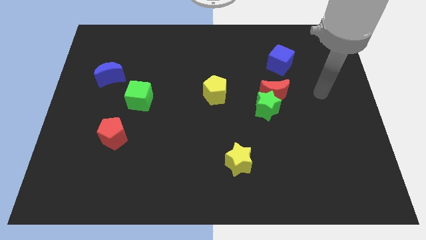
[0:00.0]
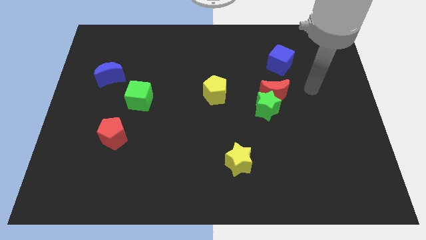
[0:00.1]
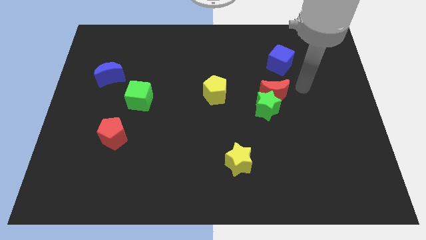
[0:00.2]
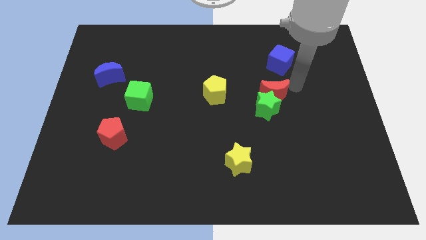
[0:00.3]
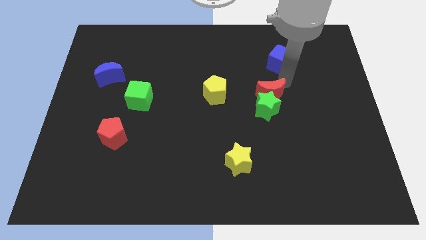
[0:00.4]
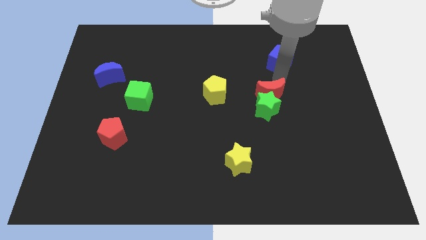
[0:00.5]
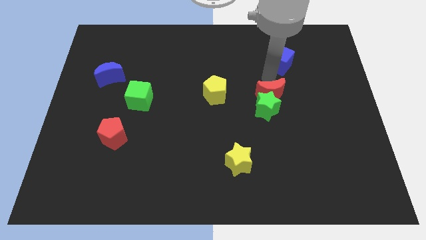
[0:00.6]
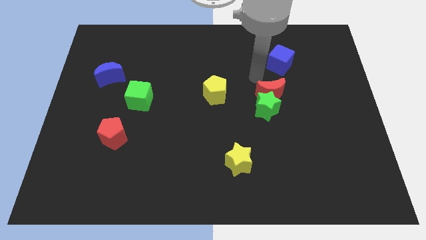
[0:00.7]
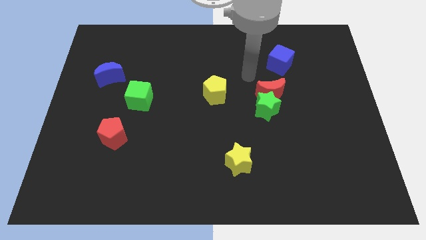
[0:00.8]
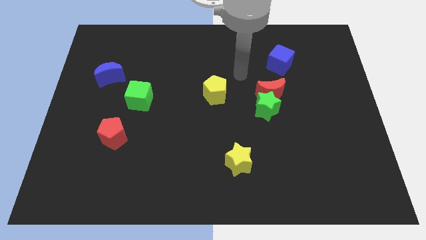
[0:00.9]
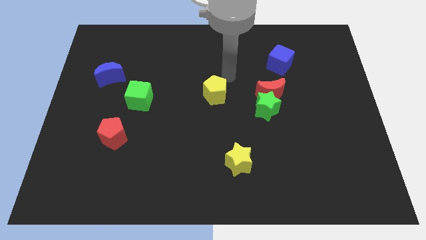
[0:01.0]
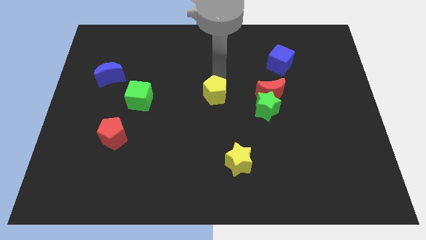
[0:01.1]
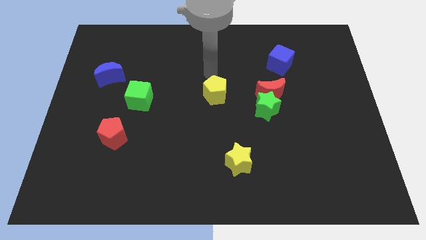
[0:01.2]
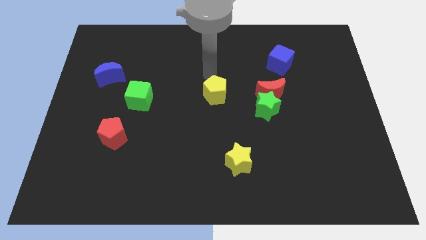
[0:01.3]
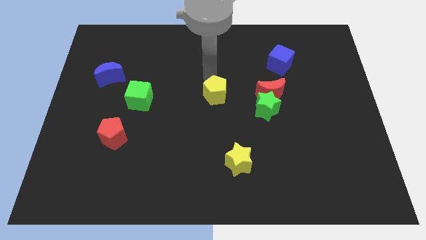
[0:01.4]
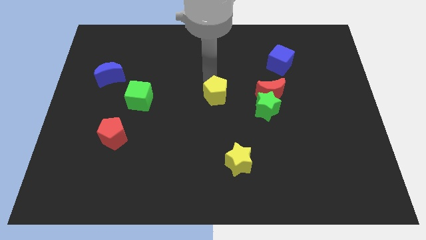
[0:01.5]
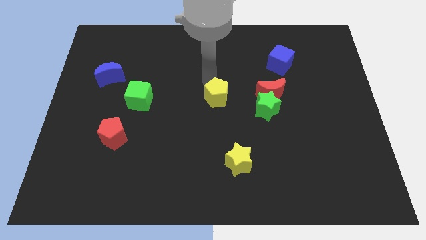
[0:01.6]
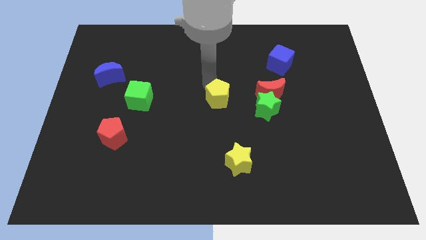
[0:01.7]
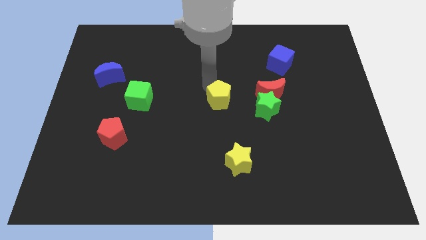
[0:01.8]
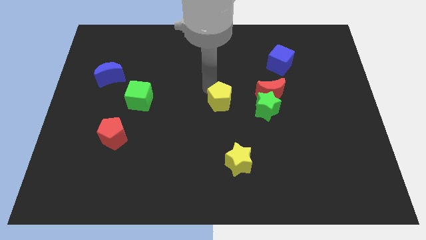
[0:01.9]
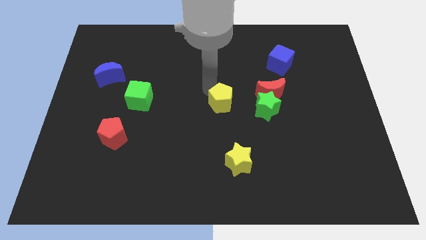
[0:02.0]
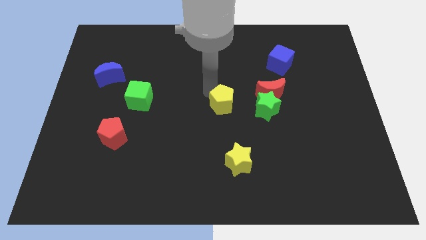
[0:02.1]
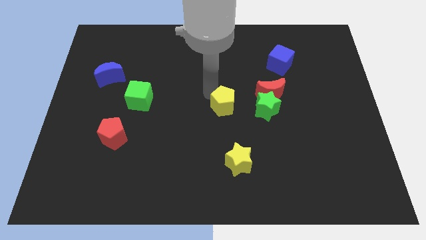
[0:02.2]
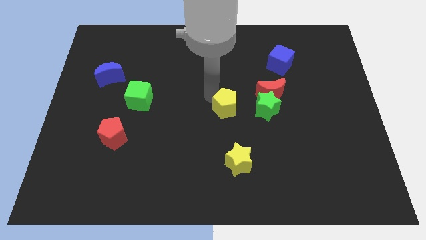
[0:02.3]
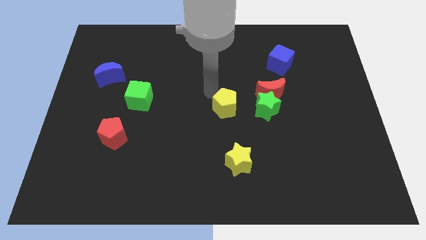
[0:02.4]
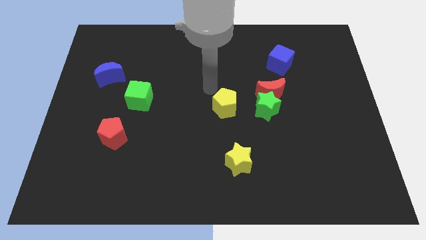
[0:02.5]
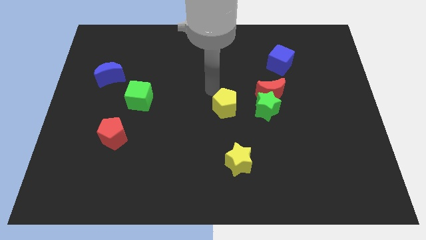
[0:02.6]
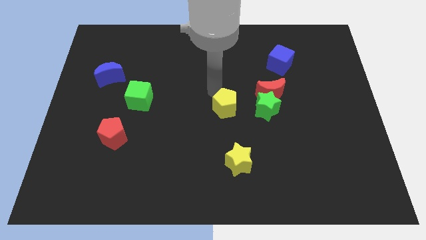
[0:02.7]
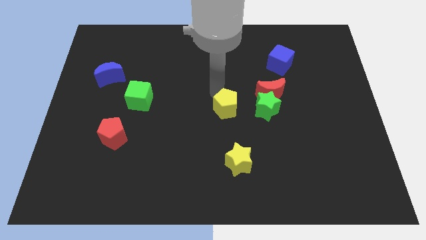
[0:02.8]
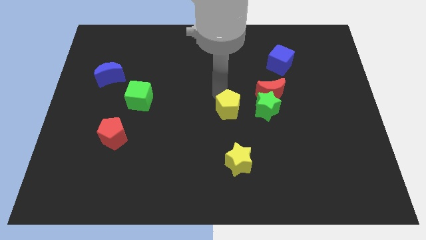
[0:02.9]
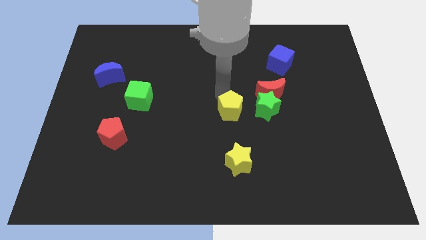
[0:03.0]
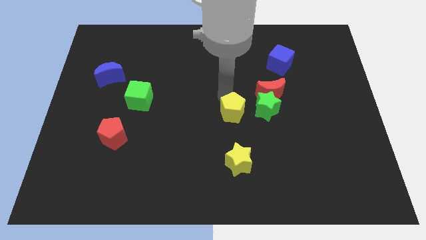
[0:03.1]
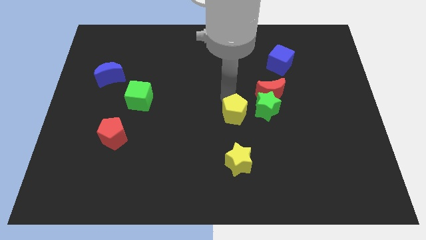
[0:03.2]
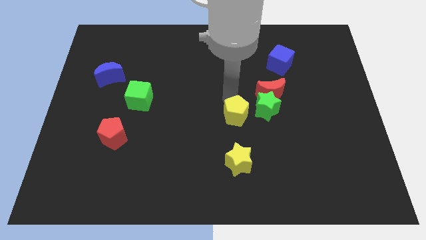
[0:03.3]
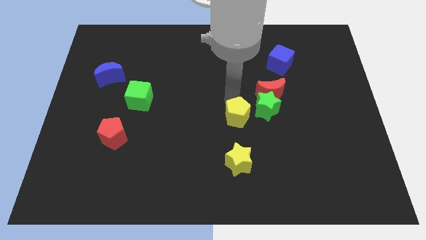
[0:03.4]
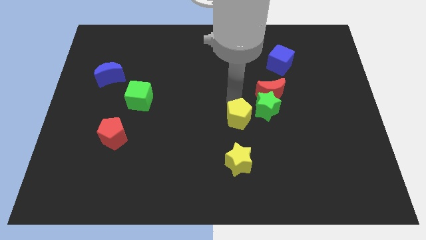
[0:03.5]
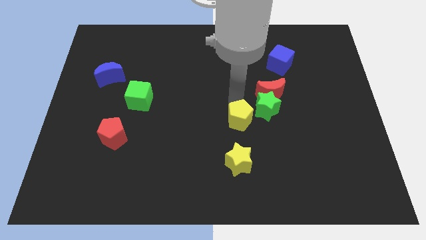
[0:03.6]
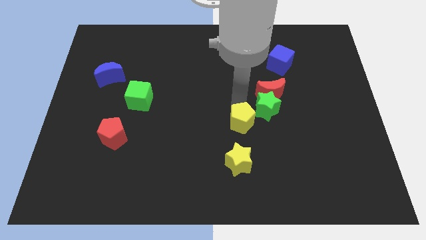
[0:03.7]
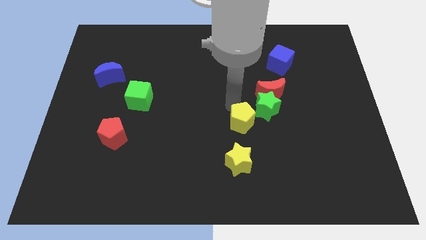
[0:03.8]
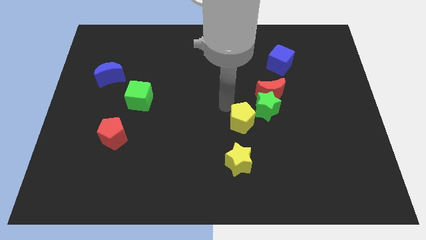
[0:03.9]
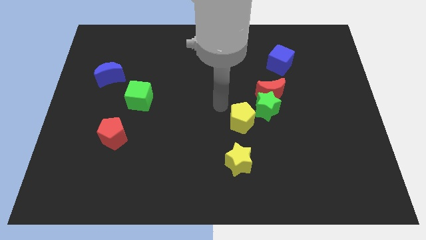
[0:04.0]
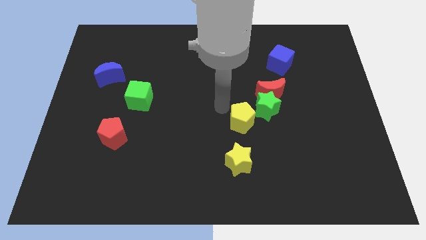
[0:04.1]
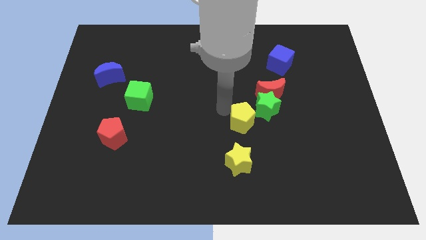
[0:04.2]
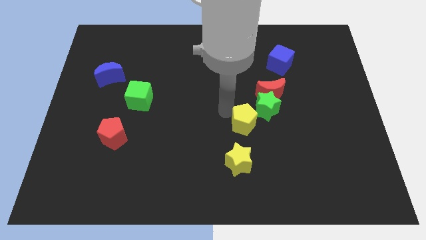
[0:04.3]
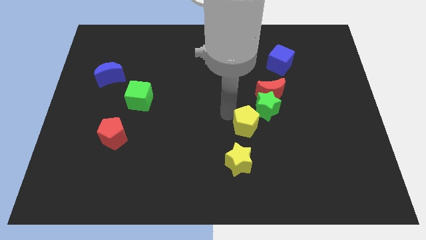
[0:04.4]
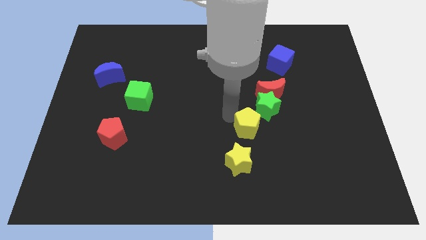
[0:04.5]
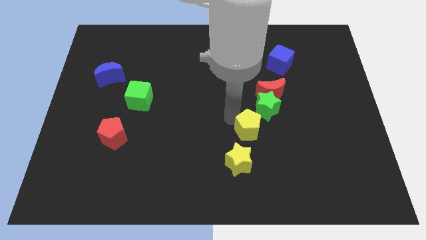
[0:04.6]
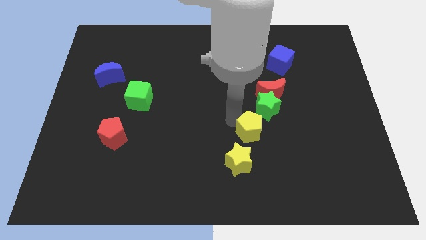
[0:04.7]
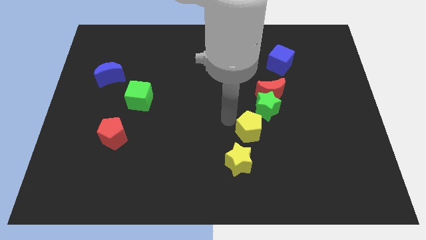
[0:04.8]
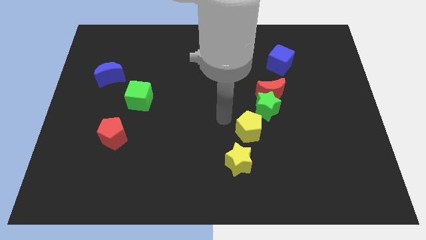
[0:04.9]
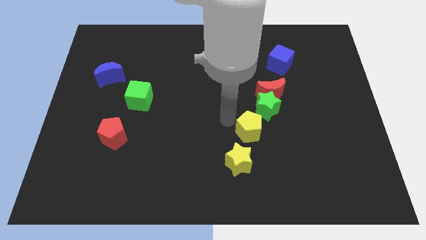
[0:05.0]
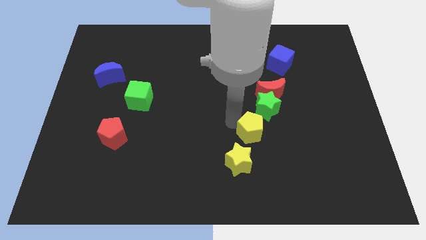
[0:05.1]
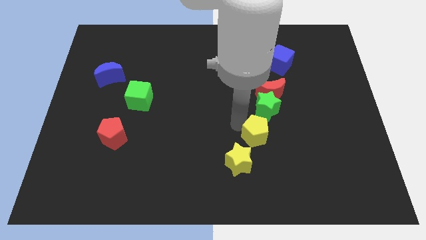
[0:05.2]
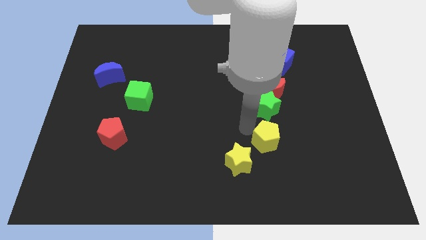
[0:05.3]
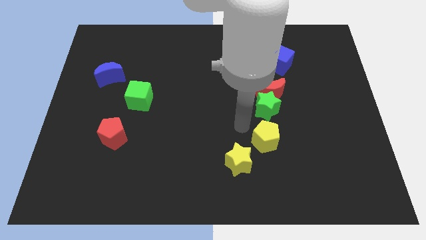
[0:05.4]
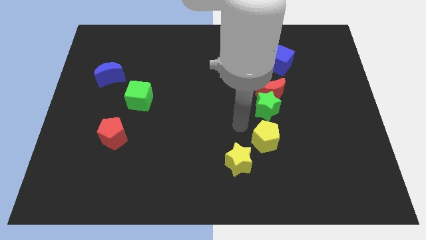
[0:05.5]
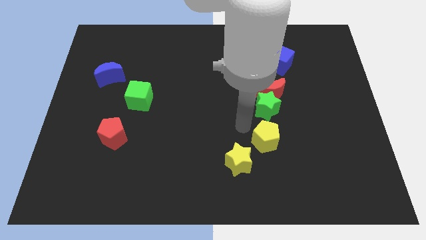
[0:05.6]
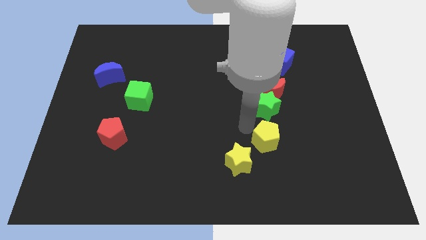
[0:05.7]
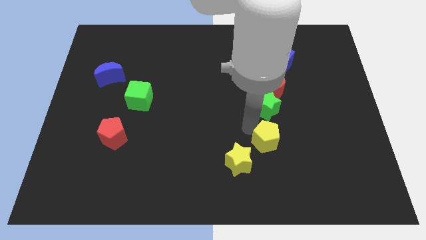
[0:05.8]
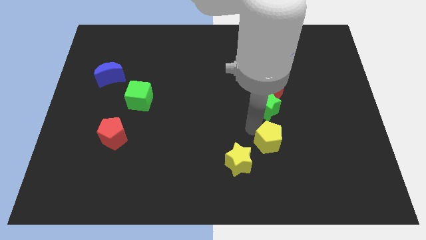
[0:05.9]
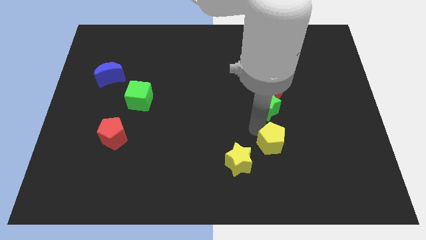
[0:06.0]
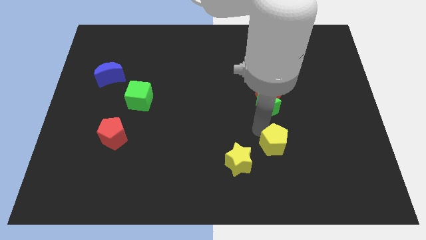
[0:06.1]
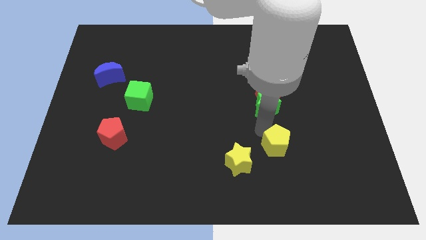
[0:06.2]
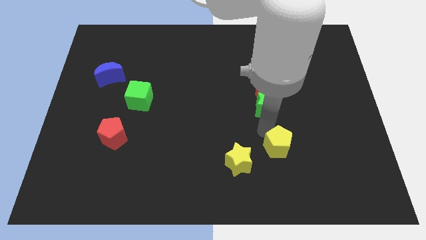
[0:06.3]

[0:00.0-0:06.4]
slide the yellow pentagon diagonally downwards and to the right

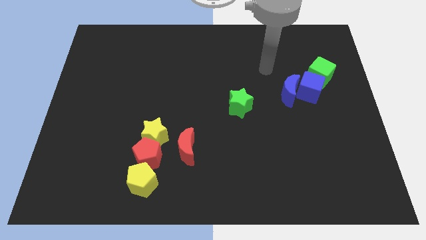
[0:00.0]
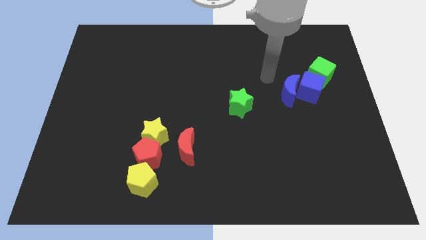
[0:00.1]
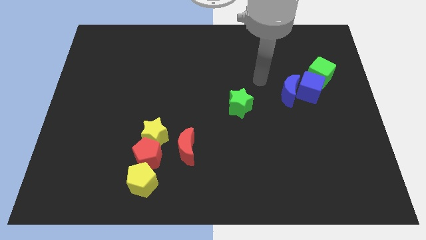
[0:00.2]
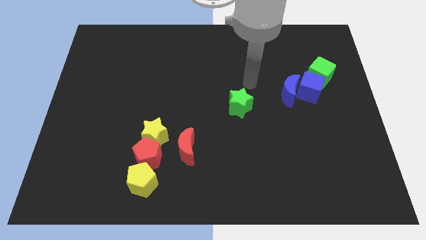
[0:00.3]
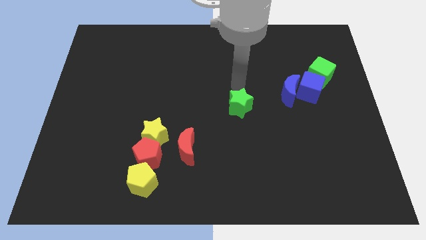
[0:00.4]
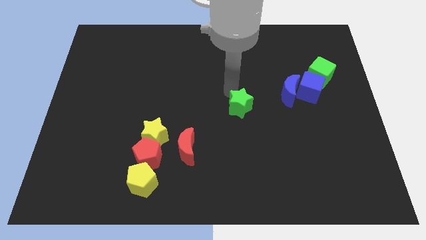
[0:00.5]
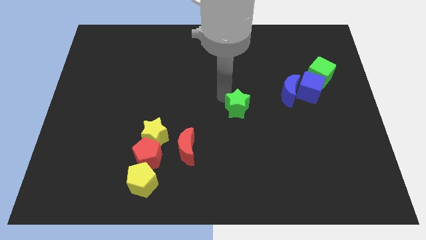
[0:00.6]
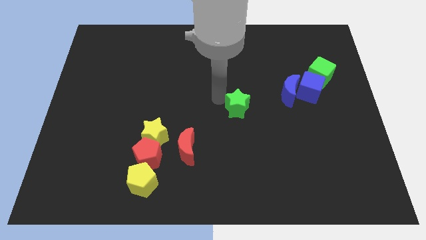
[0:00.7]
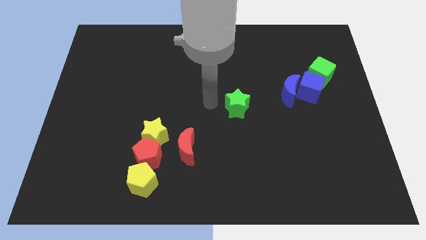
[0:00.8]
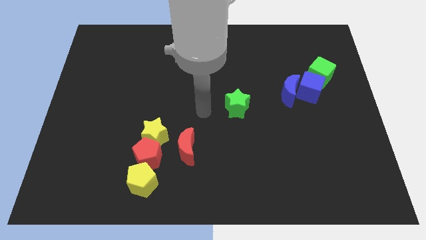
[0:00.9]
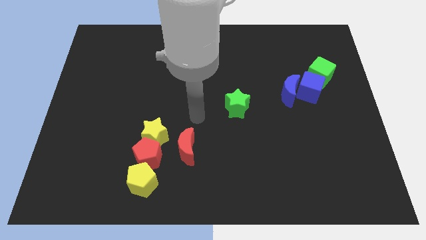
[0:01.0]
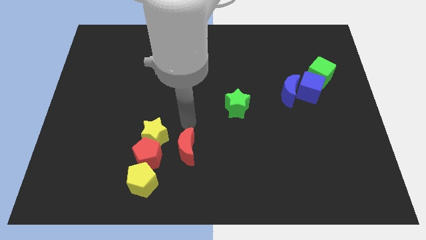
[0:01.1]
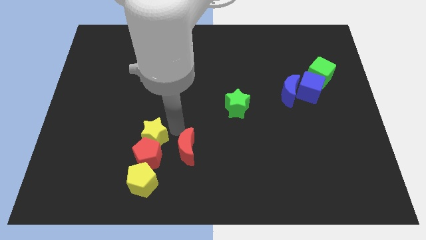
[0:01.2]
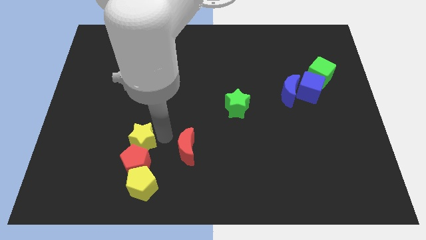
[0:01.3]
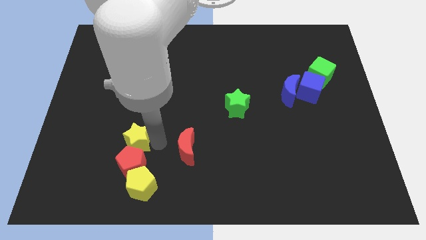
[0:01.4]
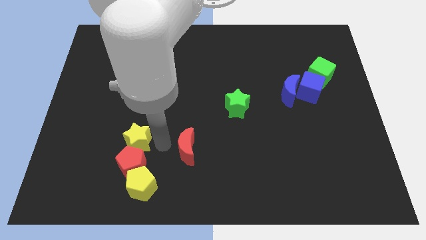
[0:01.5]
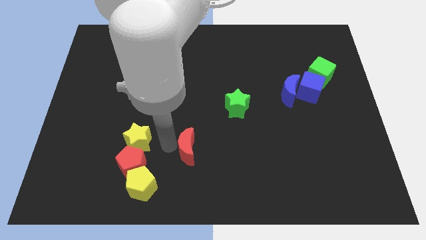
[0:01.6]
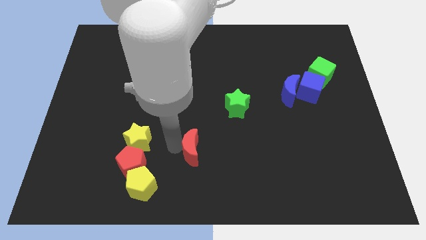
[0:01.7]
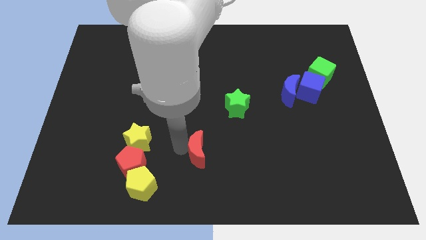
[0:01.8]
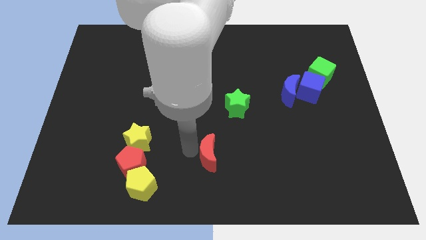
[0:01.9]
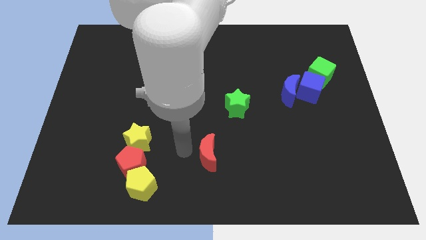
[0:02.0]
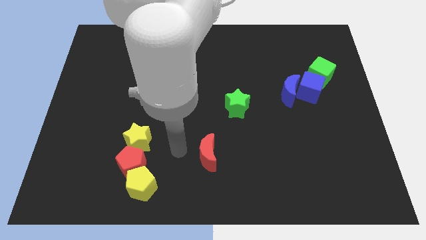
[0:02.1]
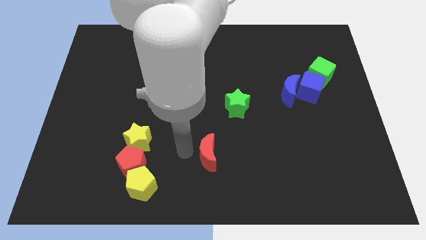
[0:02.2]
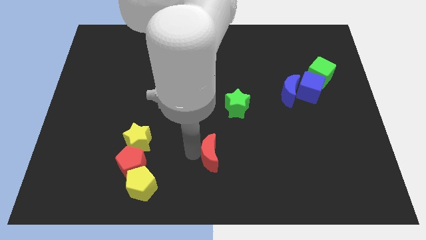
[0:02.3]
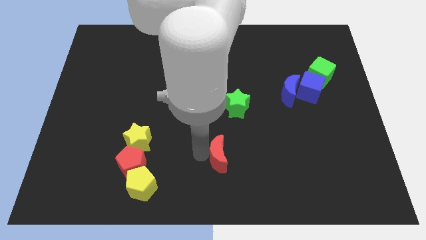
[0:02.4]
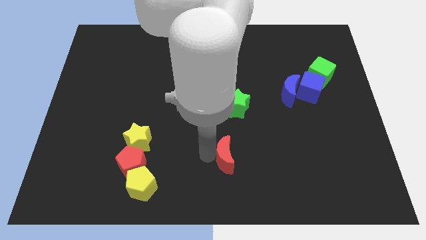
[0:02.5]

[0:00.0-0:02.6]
push the red moon right somewhat
